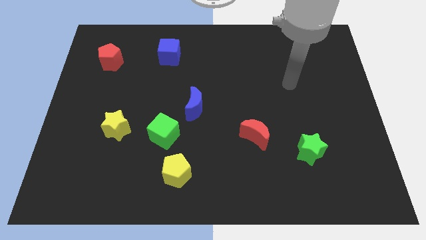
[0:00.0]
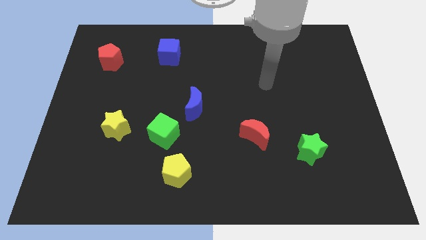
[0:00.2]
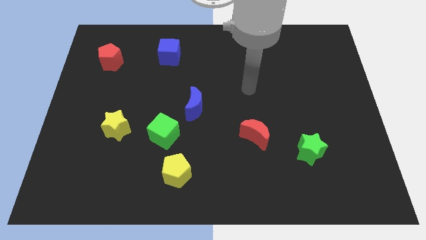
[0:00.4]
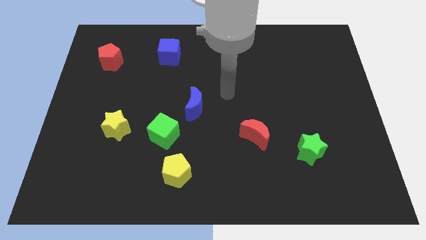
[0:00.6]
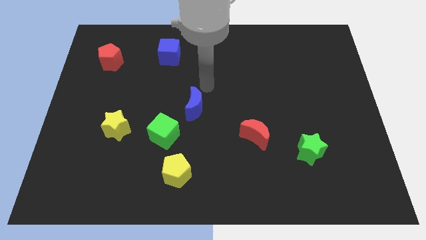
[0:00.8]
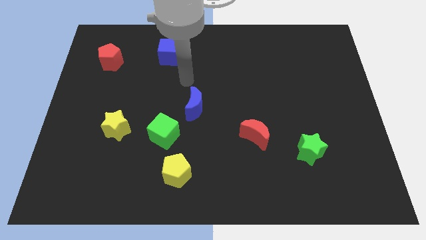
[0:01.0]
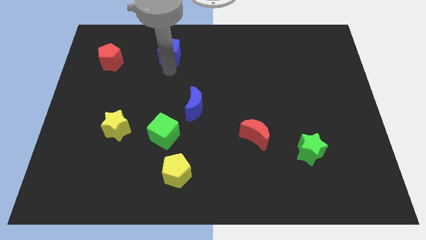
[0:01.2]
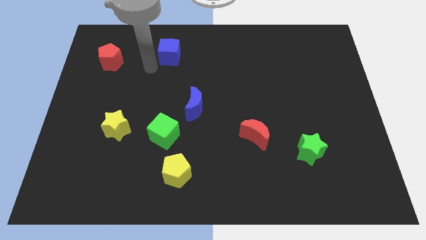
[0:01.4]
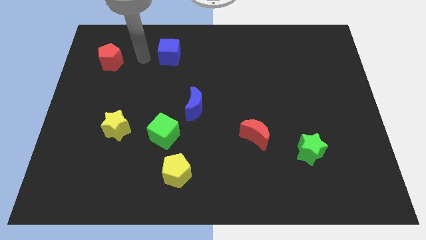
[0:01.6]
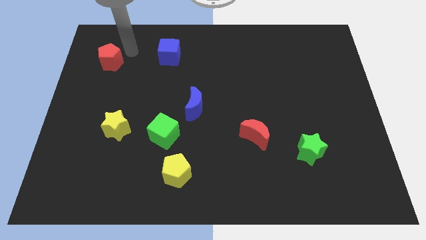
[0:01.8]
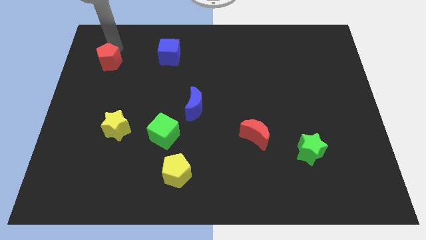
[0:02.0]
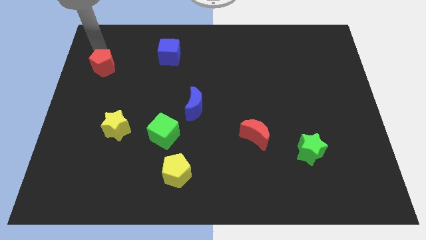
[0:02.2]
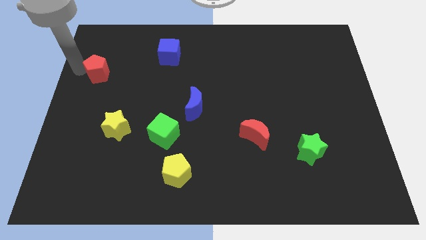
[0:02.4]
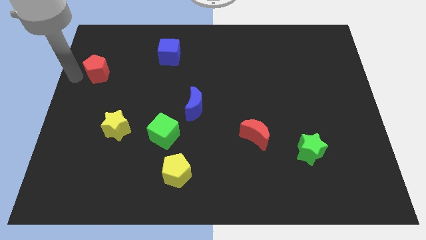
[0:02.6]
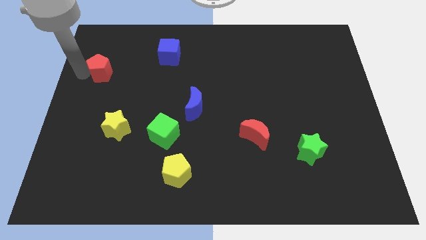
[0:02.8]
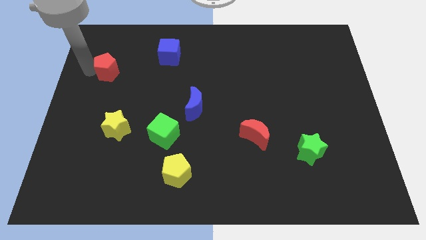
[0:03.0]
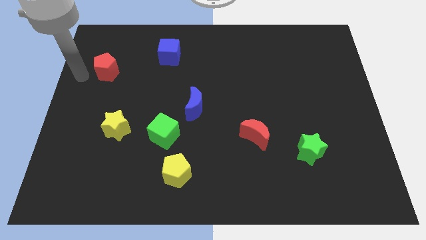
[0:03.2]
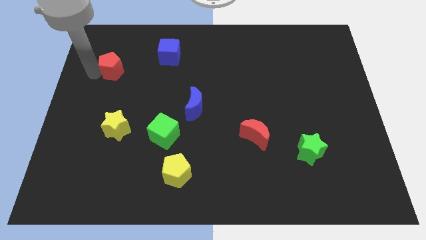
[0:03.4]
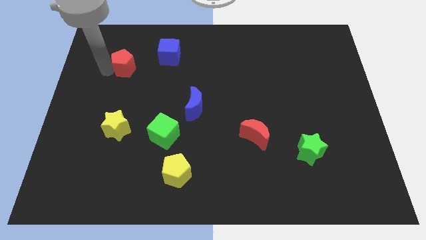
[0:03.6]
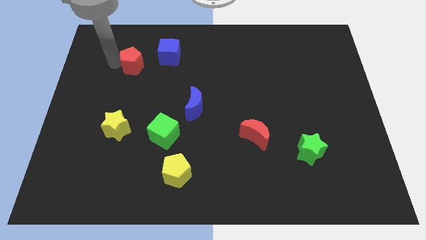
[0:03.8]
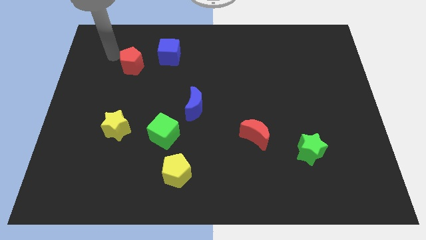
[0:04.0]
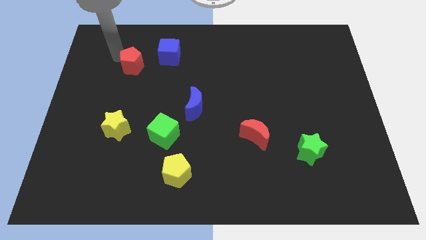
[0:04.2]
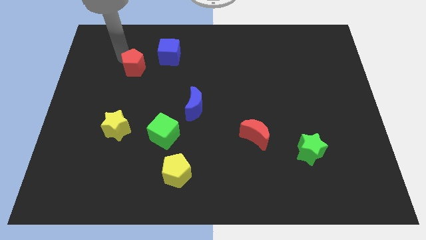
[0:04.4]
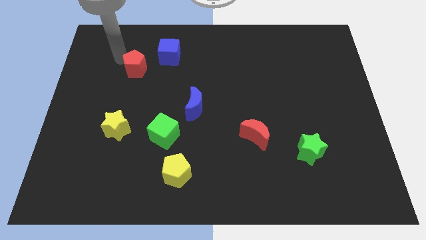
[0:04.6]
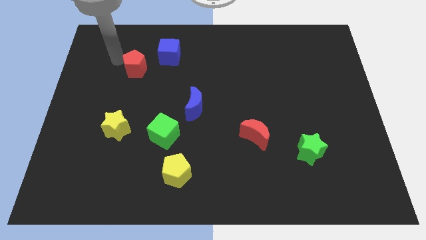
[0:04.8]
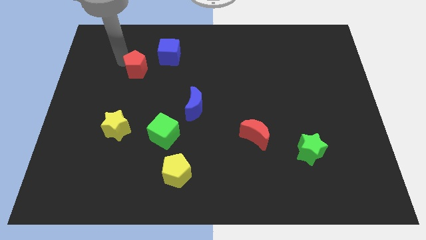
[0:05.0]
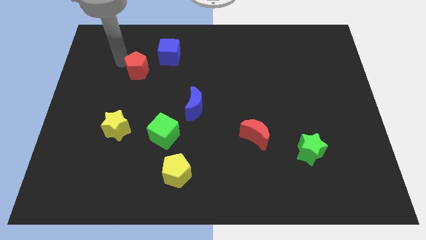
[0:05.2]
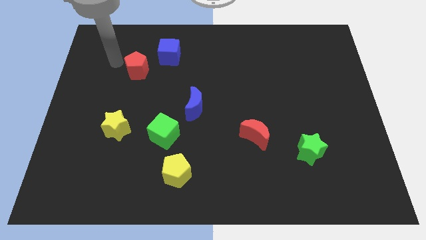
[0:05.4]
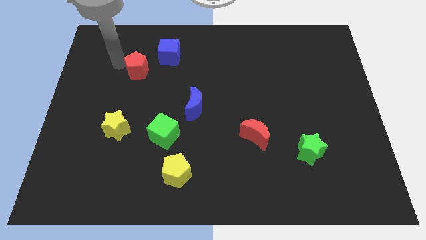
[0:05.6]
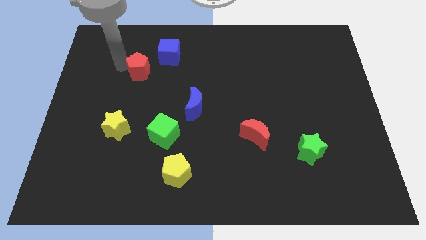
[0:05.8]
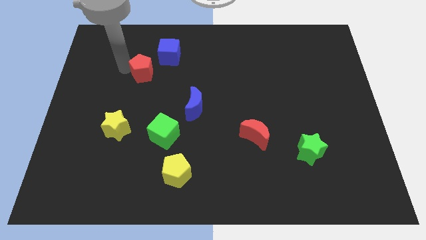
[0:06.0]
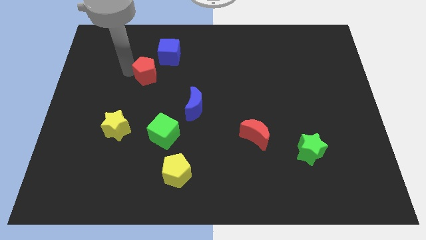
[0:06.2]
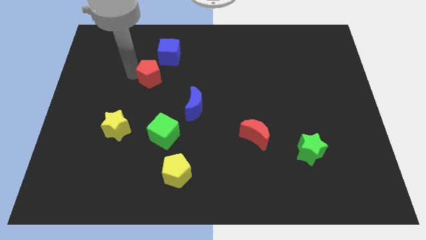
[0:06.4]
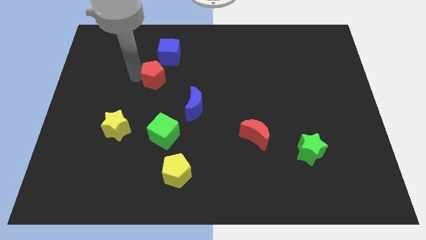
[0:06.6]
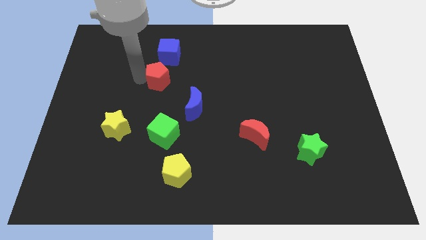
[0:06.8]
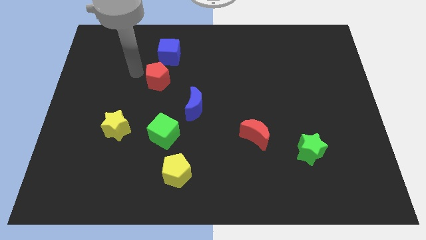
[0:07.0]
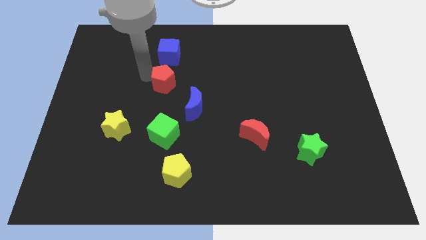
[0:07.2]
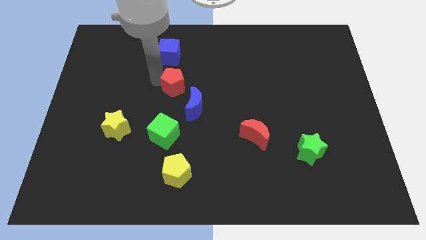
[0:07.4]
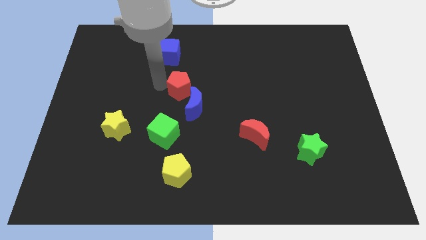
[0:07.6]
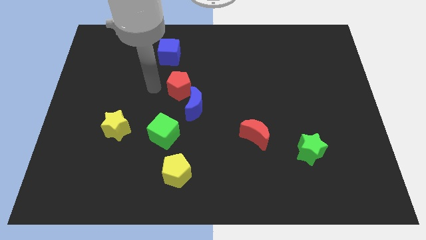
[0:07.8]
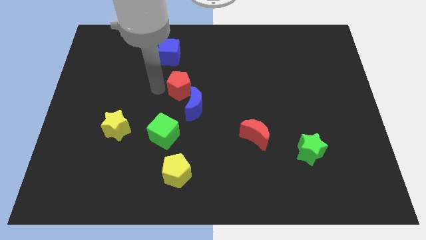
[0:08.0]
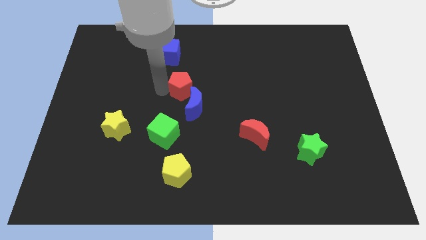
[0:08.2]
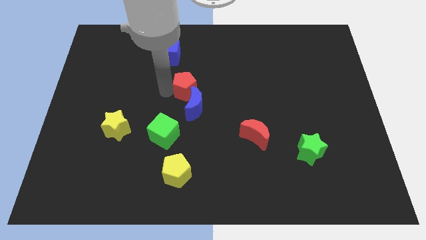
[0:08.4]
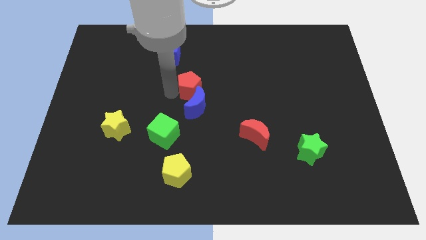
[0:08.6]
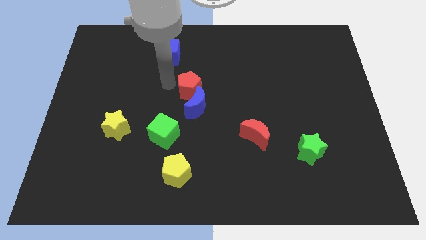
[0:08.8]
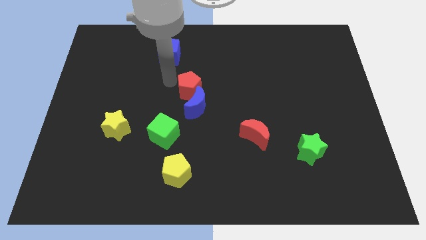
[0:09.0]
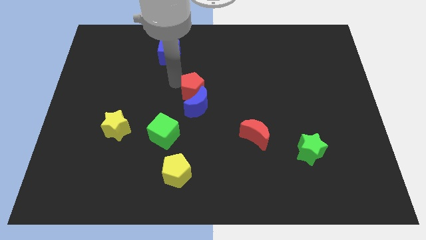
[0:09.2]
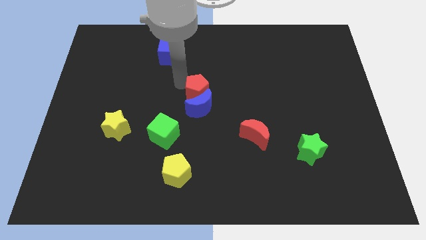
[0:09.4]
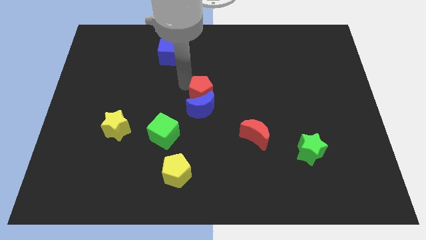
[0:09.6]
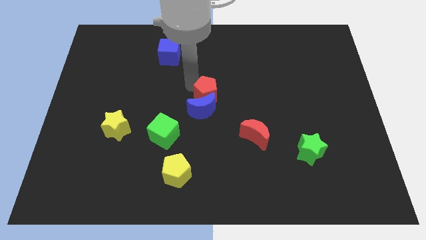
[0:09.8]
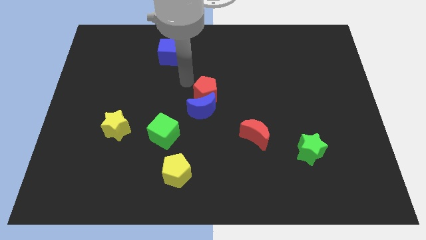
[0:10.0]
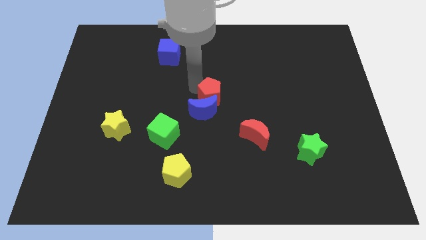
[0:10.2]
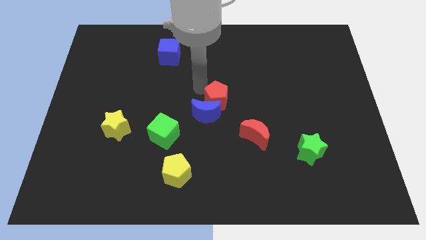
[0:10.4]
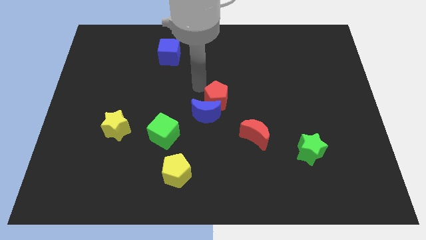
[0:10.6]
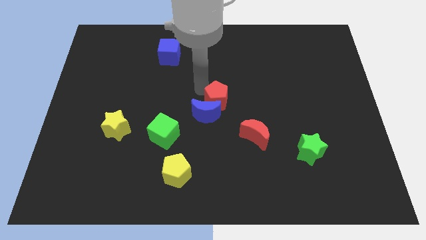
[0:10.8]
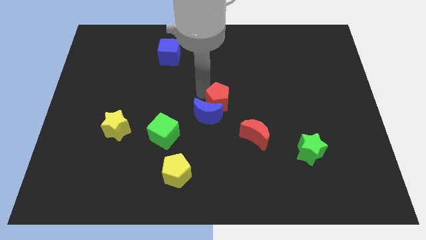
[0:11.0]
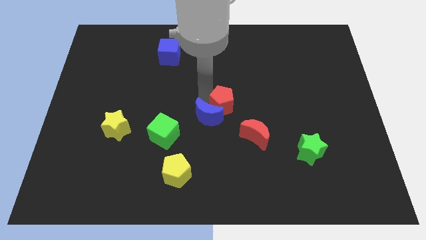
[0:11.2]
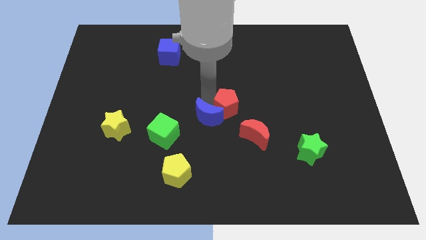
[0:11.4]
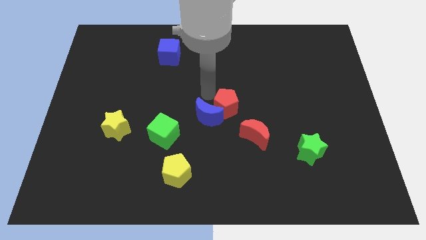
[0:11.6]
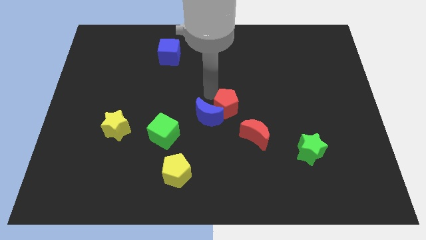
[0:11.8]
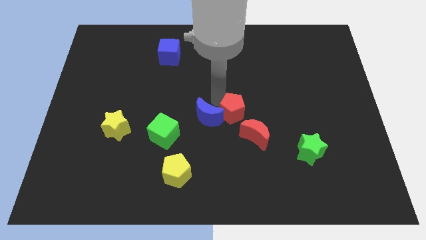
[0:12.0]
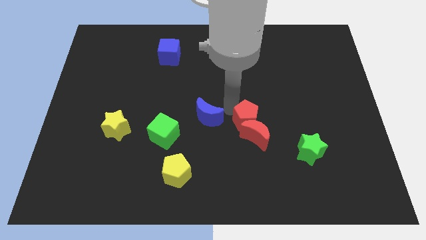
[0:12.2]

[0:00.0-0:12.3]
push the red pentagon next to the red moon
